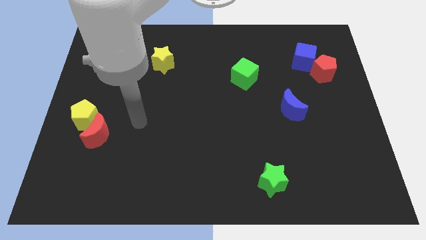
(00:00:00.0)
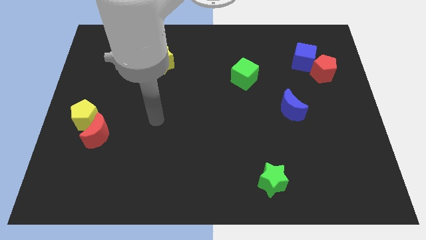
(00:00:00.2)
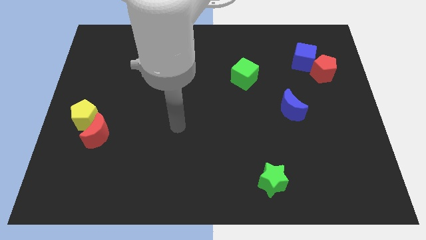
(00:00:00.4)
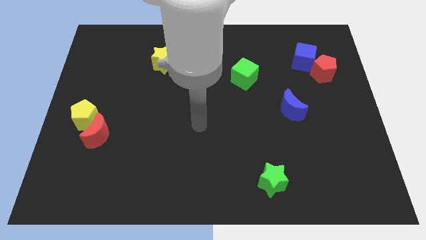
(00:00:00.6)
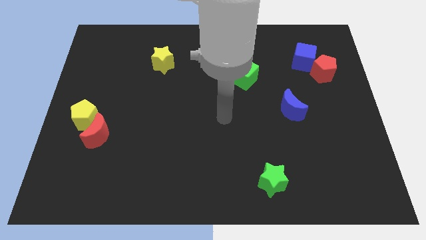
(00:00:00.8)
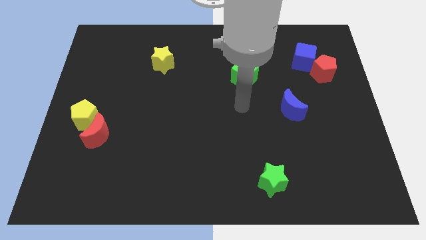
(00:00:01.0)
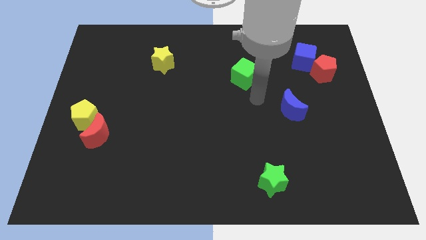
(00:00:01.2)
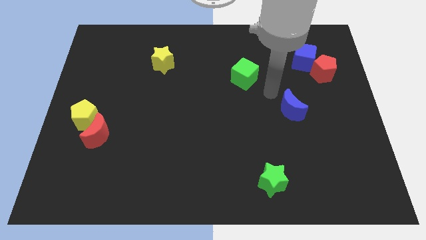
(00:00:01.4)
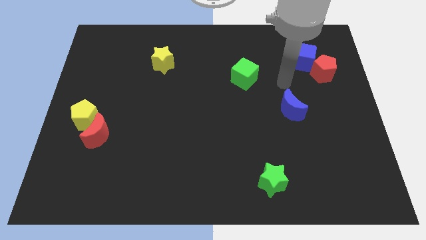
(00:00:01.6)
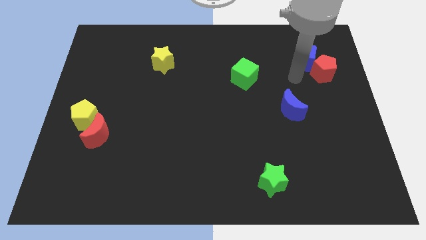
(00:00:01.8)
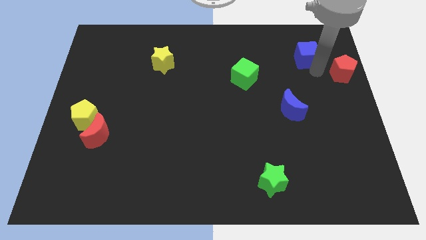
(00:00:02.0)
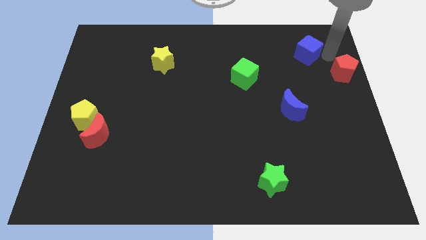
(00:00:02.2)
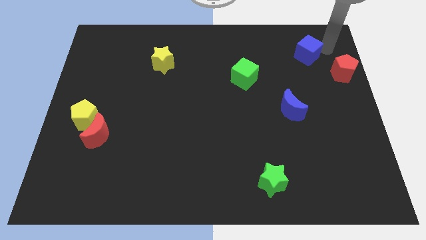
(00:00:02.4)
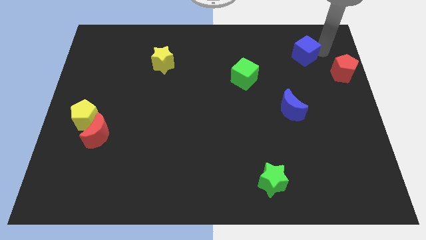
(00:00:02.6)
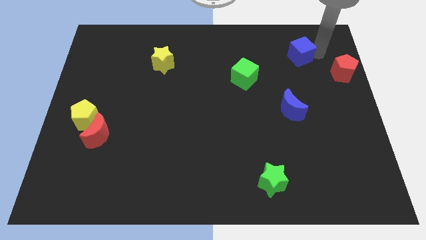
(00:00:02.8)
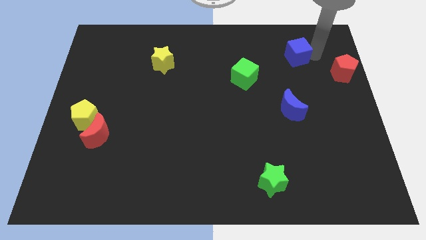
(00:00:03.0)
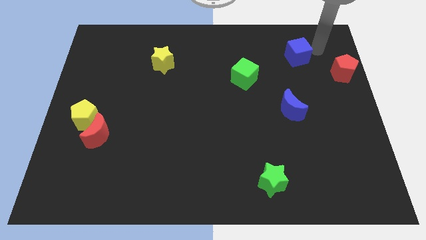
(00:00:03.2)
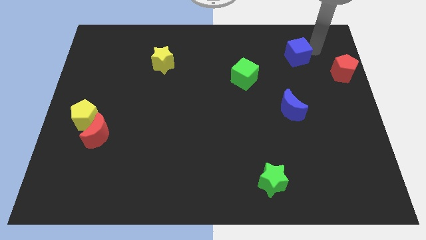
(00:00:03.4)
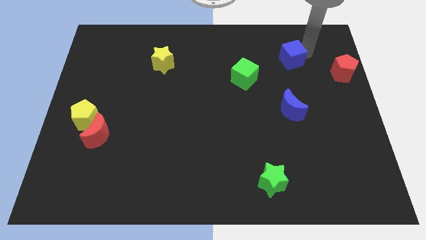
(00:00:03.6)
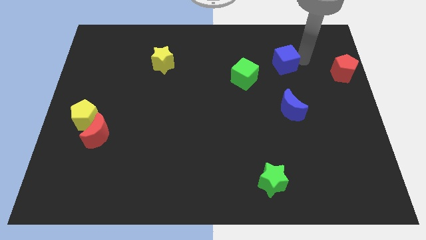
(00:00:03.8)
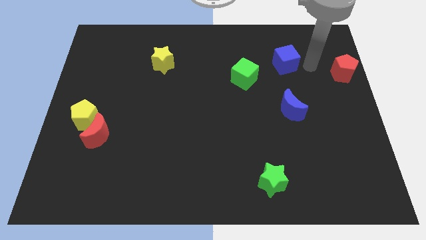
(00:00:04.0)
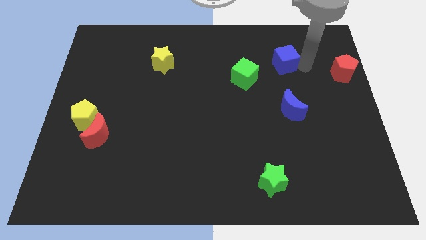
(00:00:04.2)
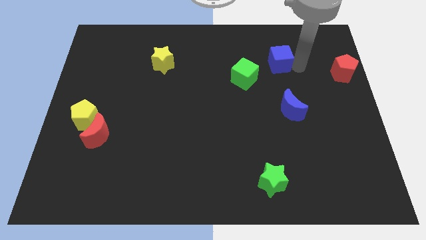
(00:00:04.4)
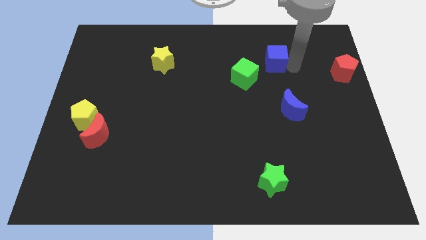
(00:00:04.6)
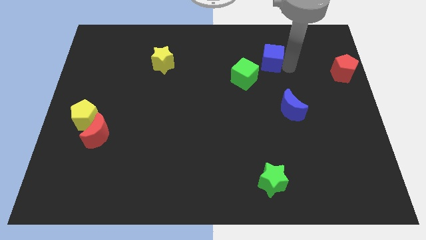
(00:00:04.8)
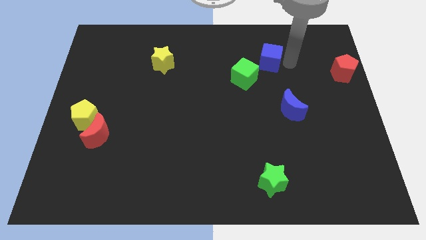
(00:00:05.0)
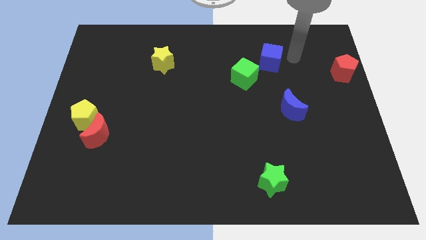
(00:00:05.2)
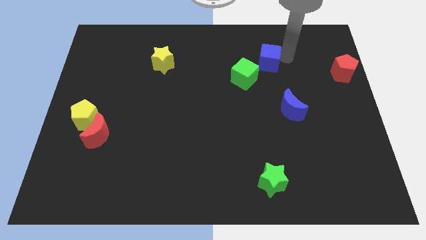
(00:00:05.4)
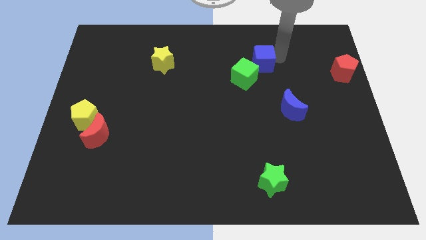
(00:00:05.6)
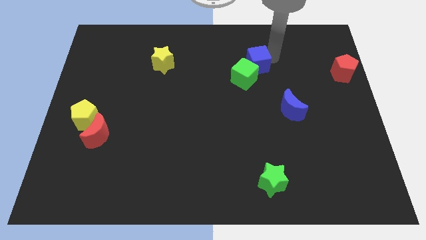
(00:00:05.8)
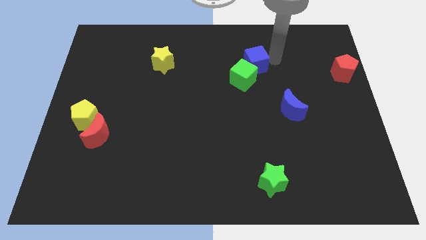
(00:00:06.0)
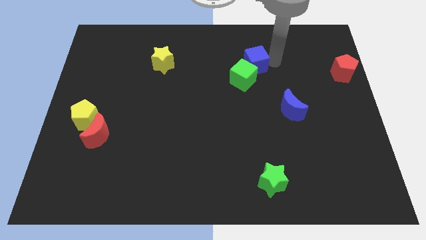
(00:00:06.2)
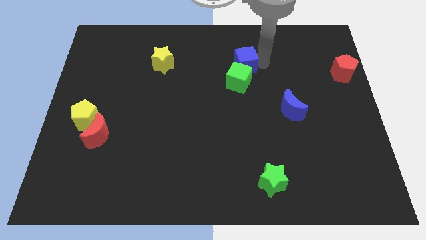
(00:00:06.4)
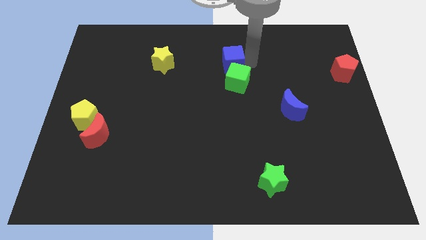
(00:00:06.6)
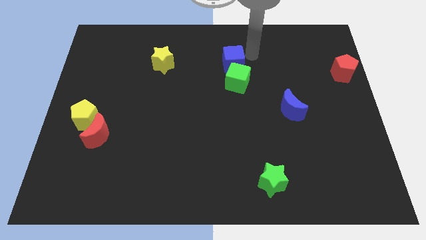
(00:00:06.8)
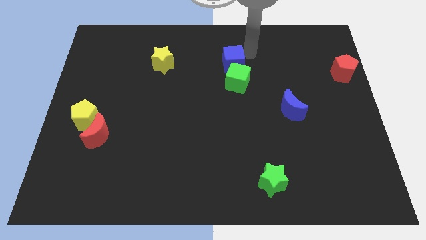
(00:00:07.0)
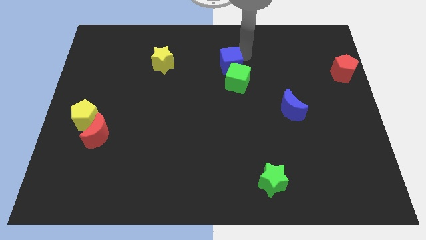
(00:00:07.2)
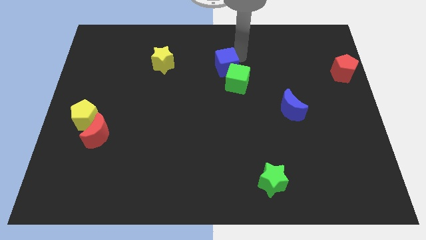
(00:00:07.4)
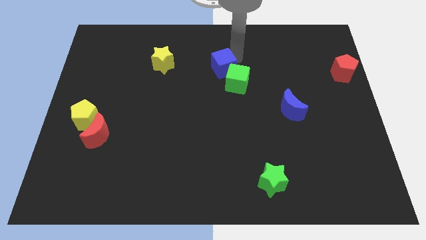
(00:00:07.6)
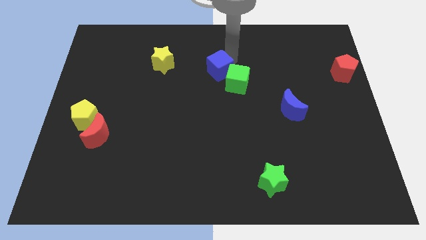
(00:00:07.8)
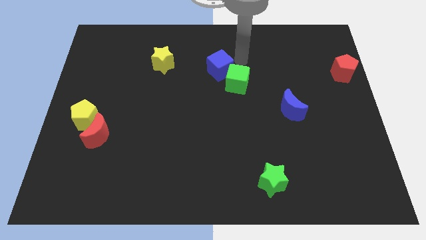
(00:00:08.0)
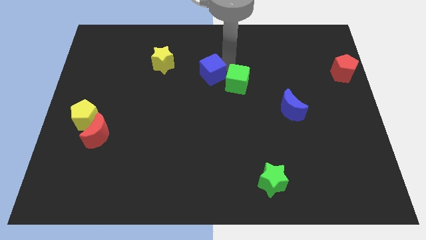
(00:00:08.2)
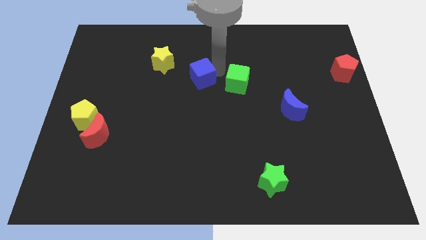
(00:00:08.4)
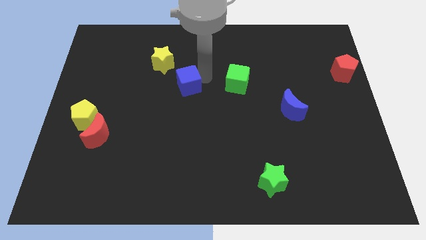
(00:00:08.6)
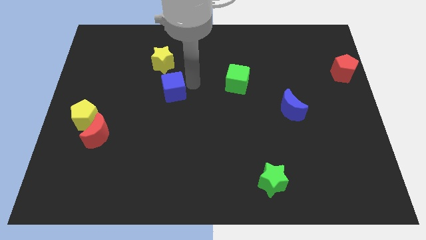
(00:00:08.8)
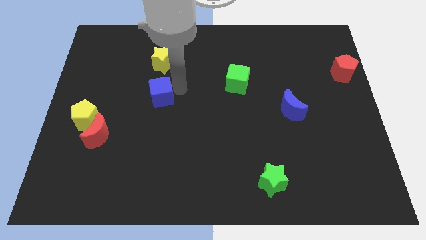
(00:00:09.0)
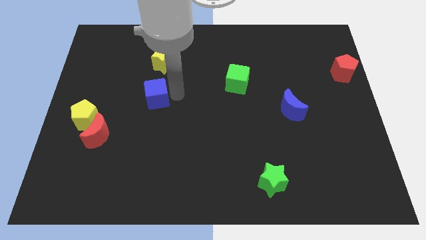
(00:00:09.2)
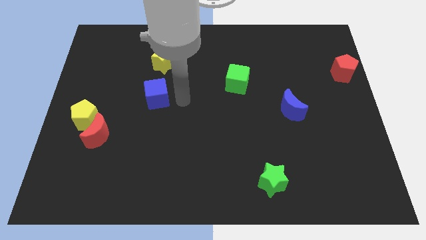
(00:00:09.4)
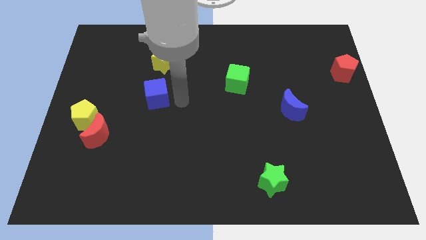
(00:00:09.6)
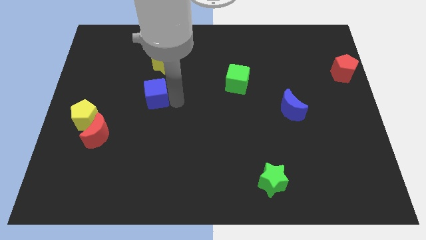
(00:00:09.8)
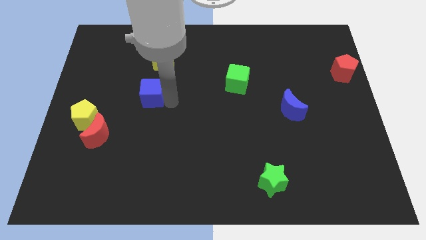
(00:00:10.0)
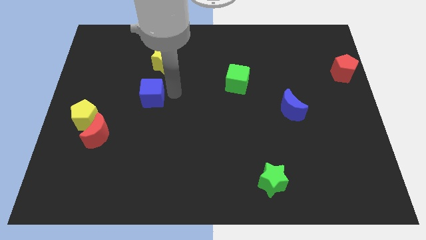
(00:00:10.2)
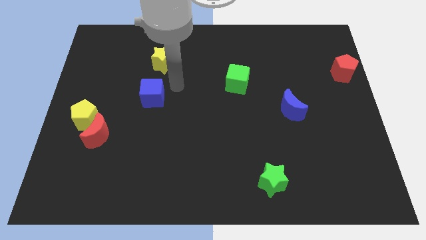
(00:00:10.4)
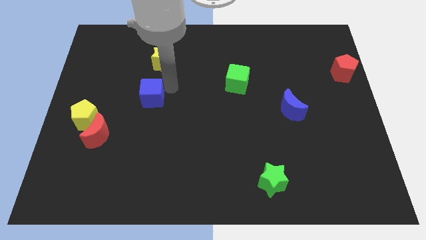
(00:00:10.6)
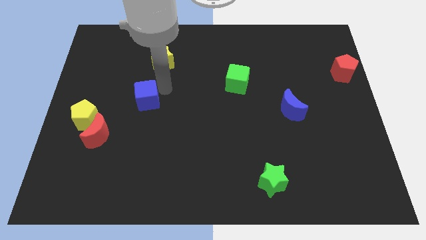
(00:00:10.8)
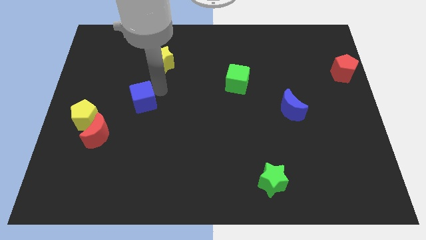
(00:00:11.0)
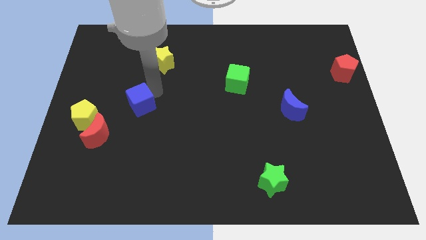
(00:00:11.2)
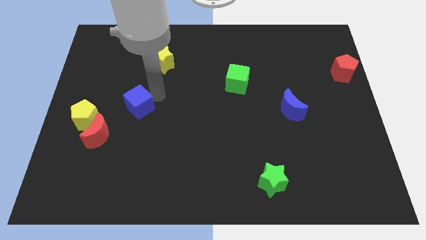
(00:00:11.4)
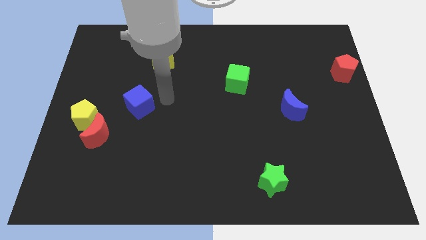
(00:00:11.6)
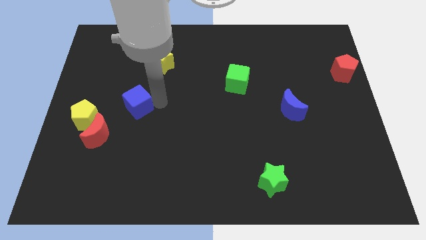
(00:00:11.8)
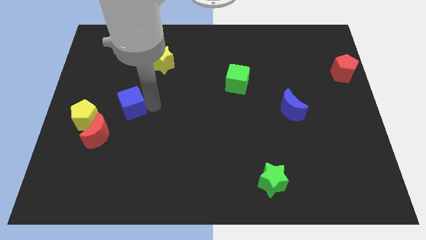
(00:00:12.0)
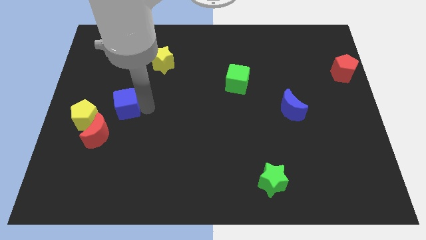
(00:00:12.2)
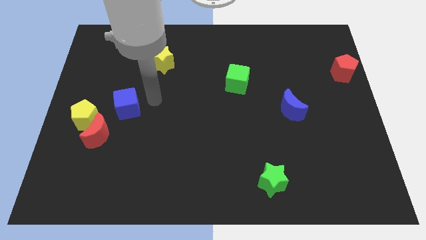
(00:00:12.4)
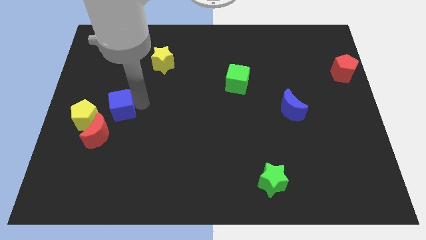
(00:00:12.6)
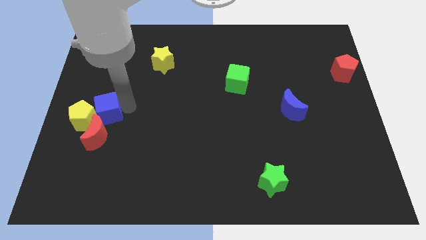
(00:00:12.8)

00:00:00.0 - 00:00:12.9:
push the blue cube to the yellow pentagon
